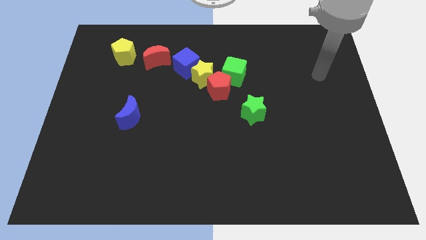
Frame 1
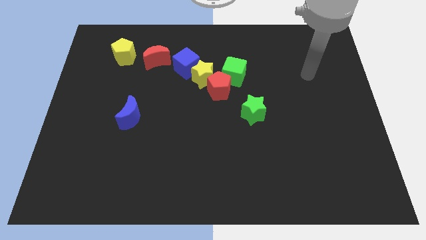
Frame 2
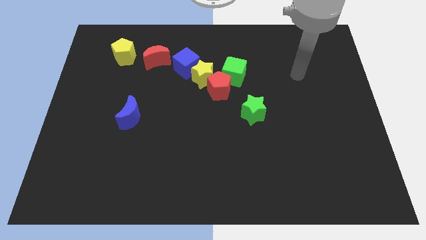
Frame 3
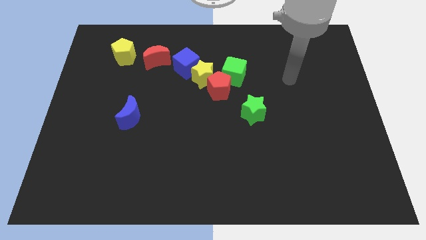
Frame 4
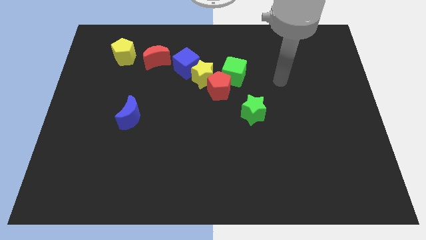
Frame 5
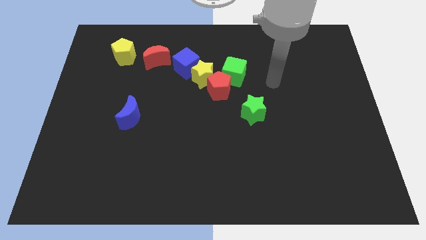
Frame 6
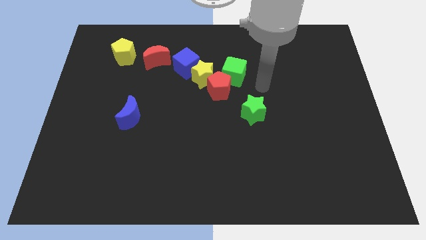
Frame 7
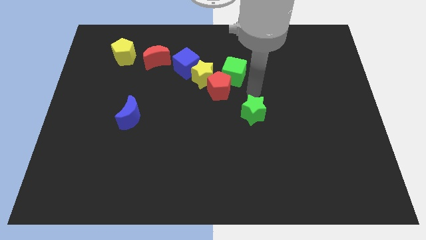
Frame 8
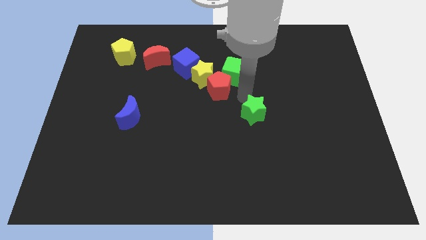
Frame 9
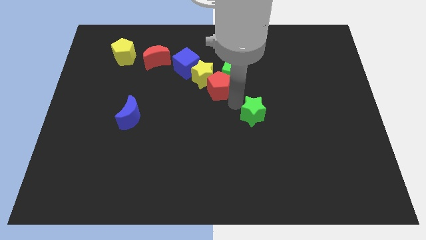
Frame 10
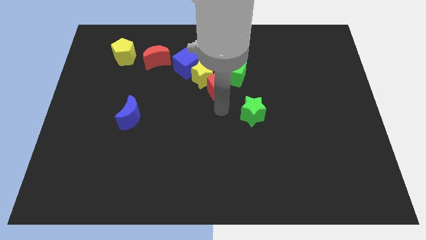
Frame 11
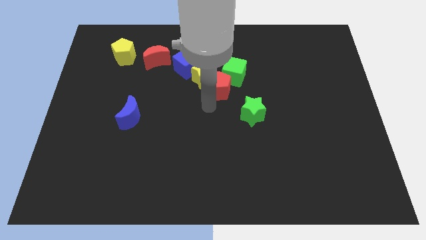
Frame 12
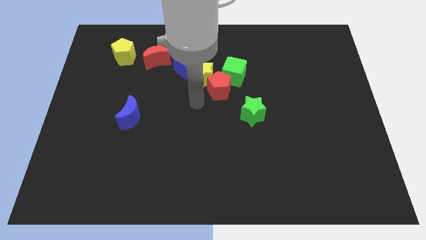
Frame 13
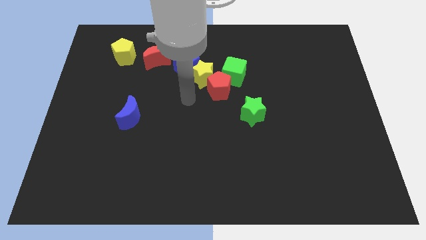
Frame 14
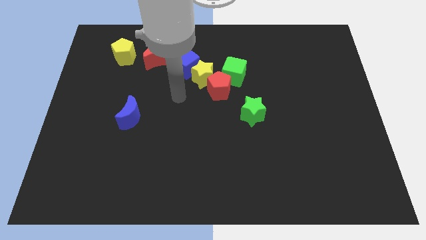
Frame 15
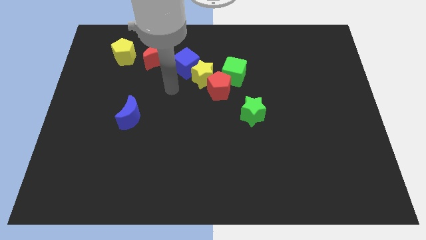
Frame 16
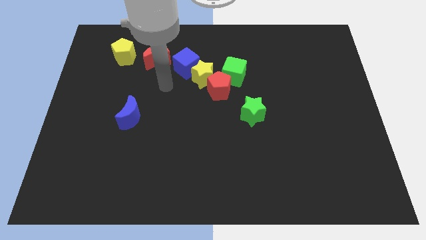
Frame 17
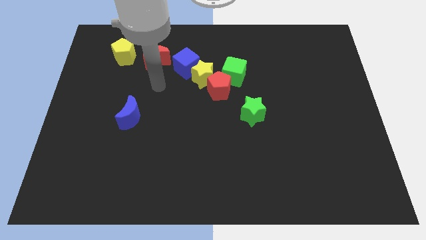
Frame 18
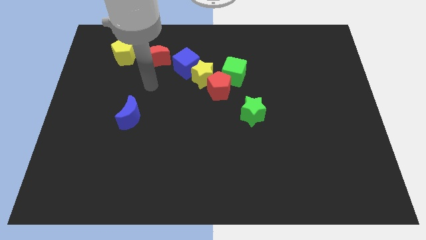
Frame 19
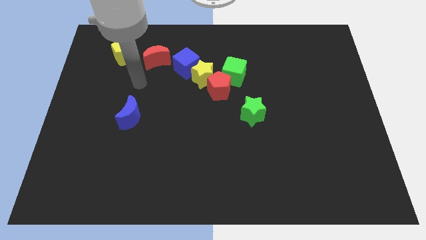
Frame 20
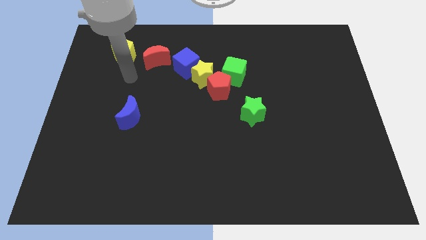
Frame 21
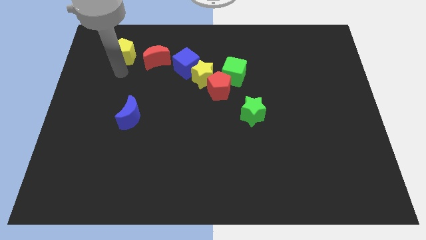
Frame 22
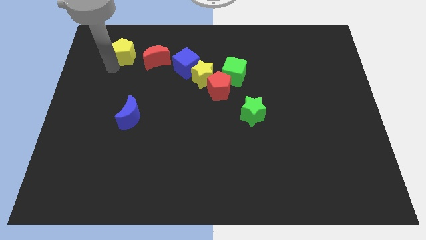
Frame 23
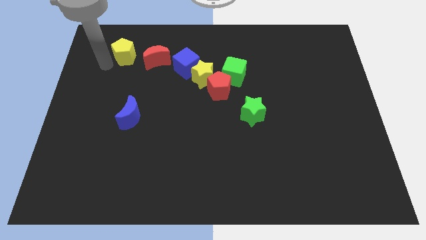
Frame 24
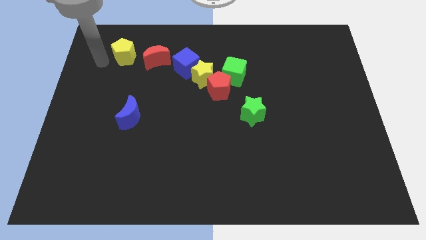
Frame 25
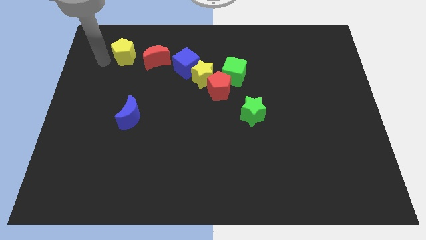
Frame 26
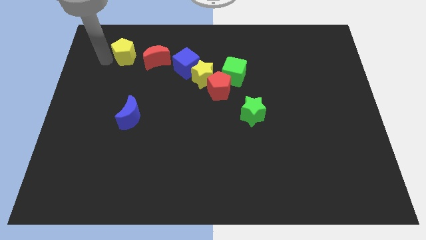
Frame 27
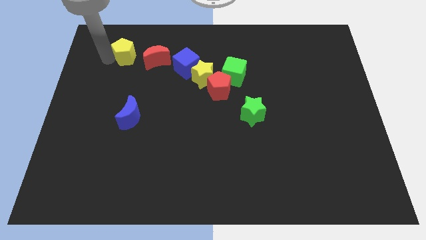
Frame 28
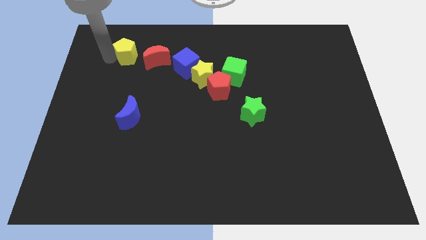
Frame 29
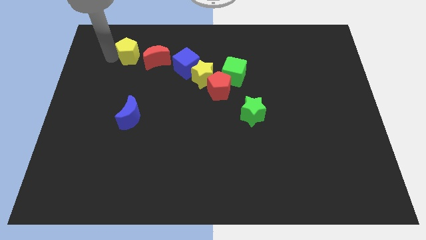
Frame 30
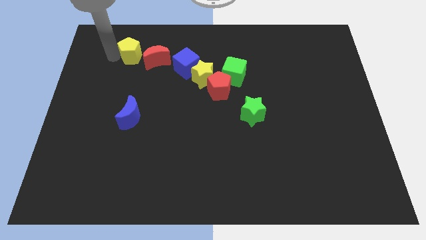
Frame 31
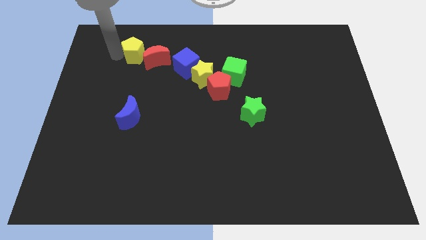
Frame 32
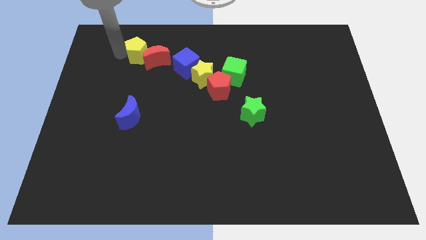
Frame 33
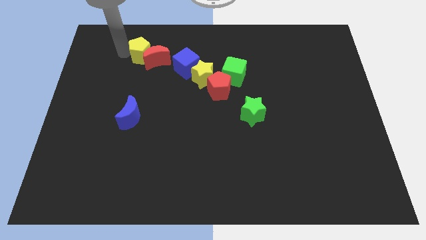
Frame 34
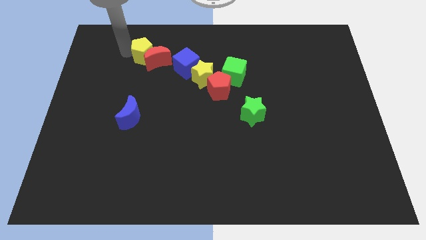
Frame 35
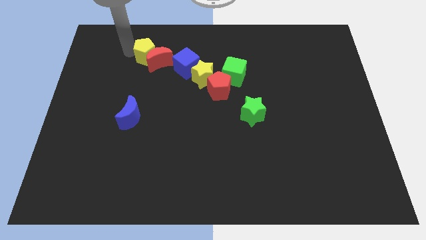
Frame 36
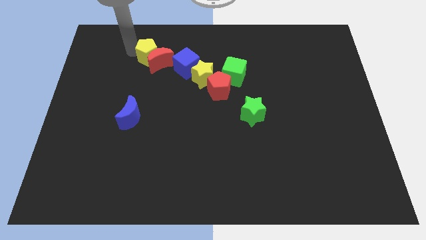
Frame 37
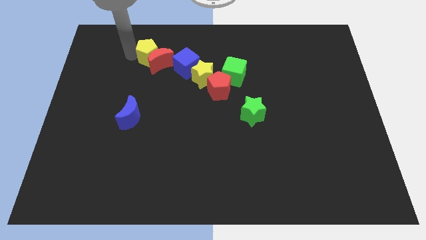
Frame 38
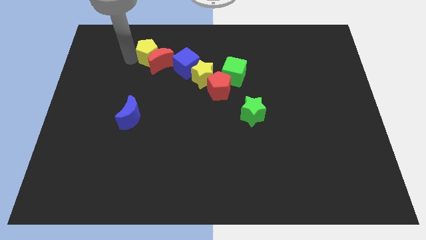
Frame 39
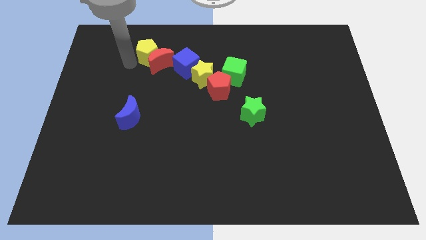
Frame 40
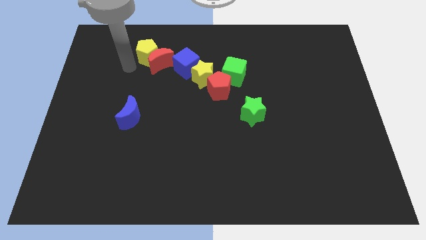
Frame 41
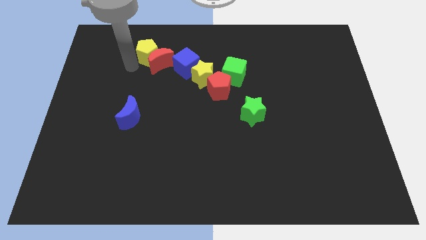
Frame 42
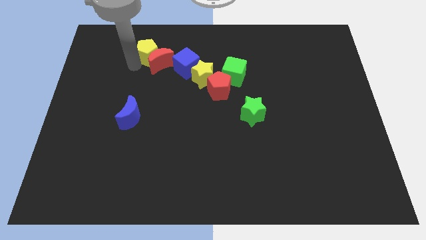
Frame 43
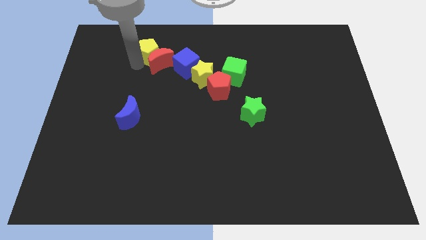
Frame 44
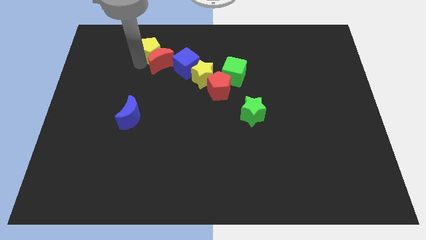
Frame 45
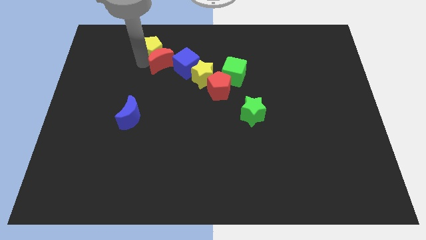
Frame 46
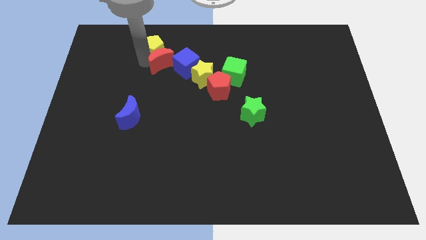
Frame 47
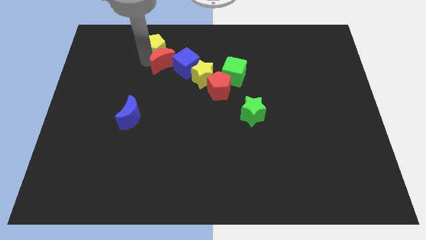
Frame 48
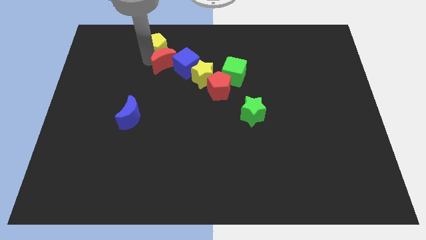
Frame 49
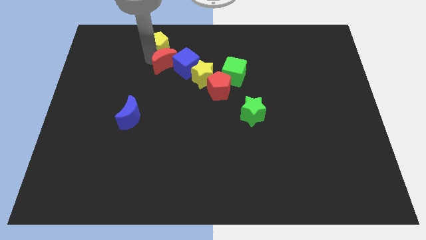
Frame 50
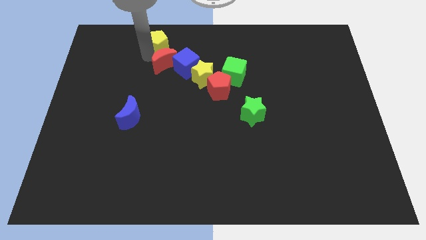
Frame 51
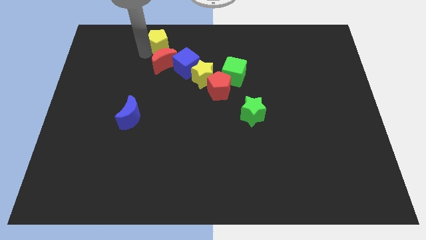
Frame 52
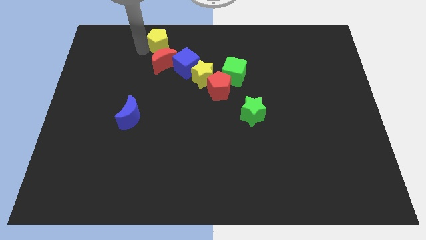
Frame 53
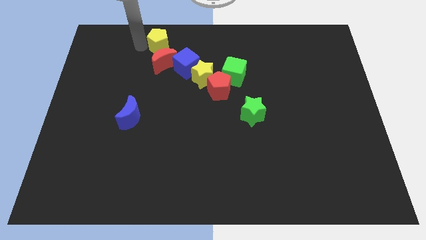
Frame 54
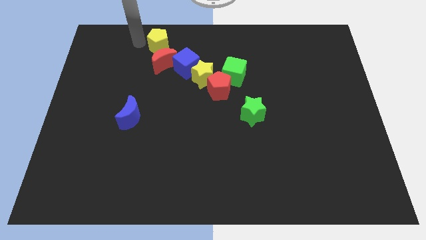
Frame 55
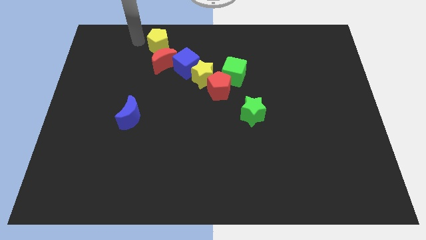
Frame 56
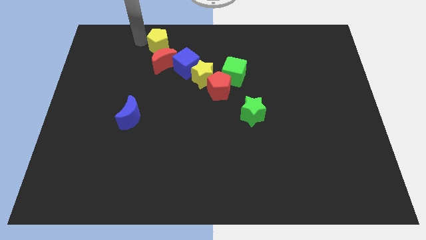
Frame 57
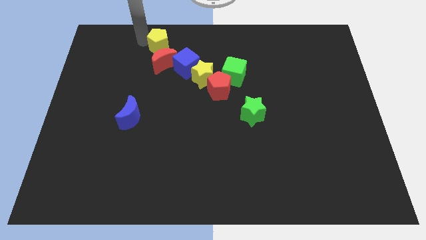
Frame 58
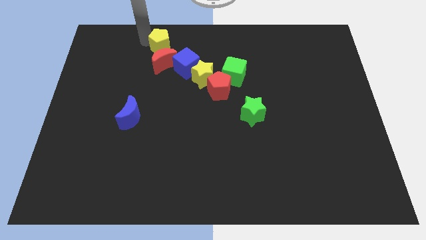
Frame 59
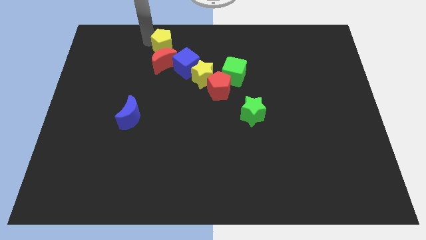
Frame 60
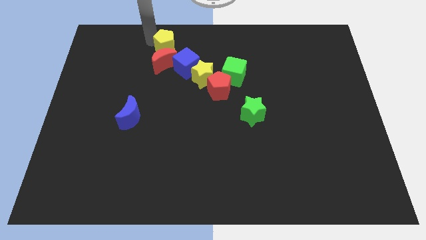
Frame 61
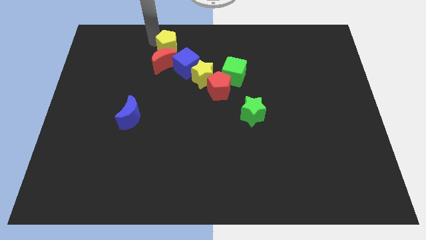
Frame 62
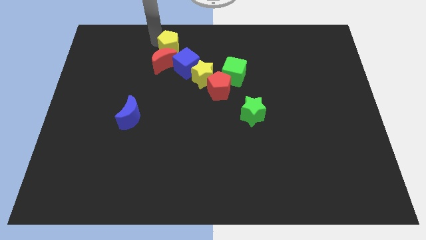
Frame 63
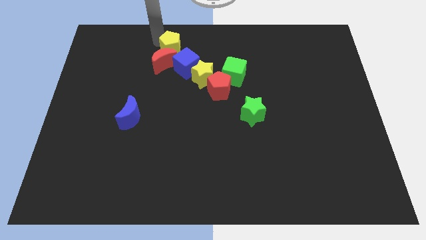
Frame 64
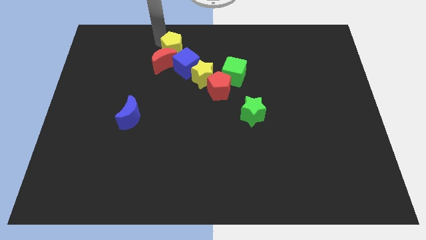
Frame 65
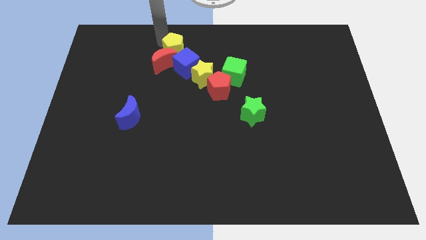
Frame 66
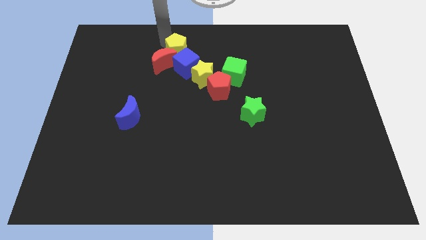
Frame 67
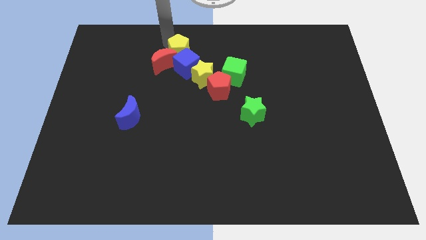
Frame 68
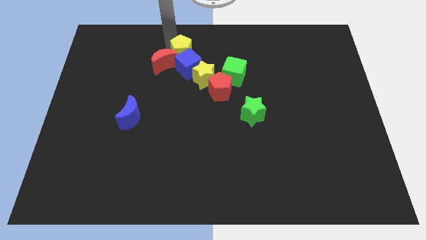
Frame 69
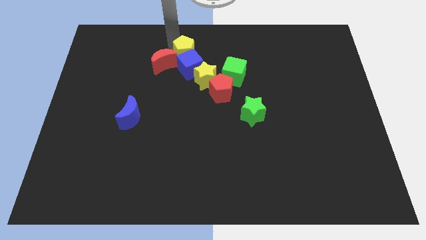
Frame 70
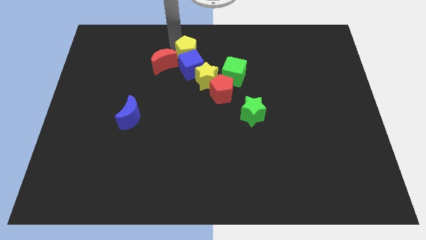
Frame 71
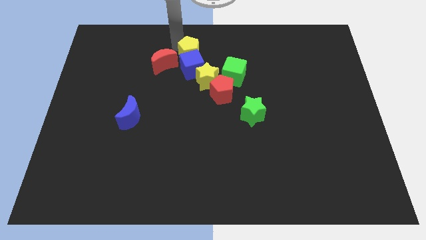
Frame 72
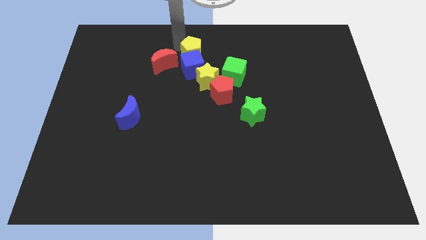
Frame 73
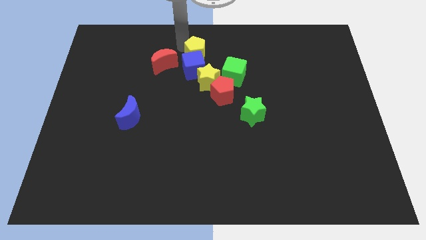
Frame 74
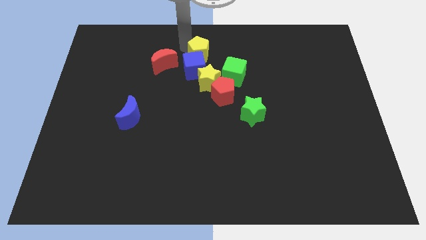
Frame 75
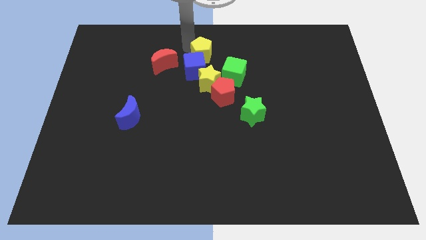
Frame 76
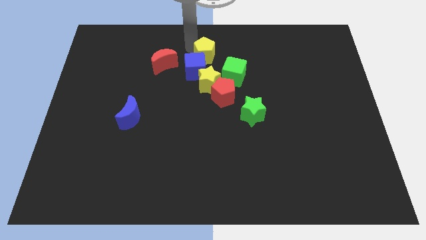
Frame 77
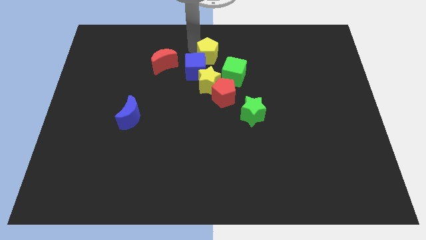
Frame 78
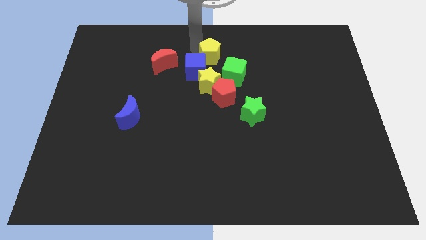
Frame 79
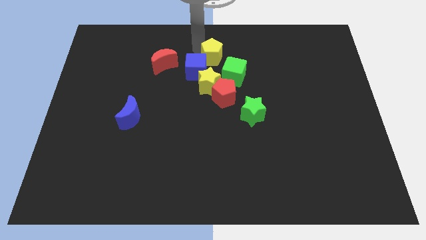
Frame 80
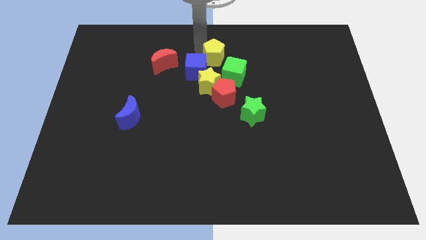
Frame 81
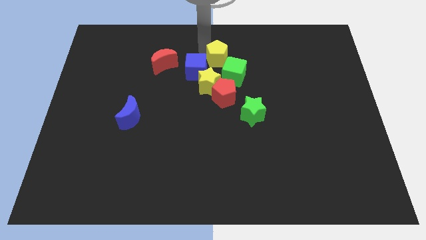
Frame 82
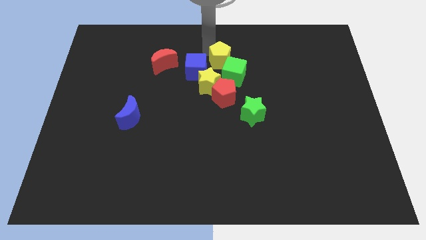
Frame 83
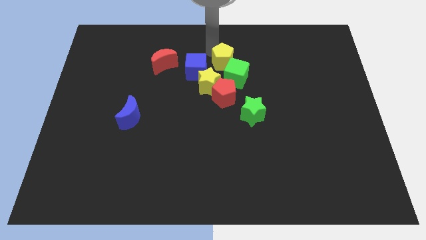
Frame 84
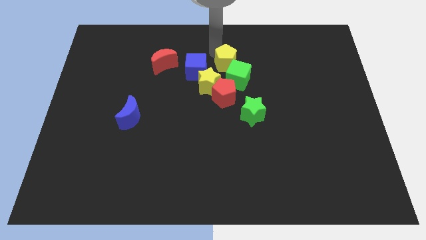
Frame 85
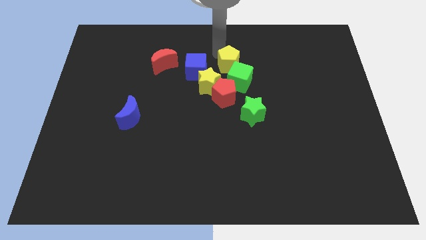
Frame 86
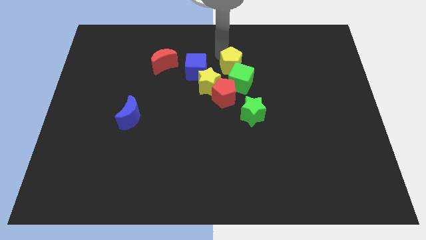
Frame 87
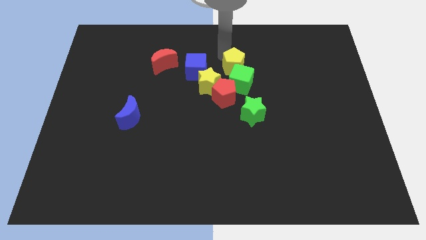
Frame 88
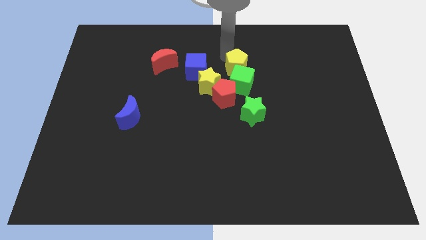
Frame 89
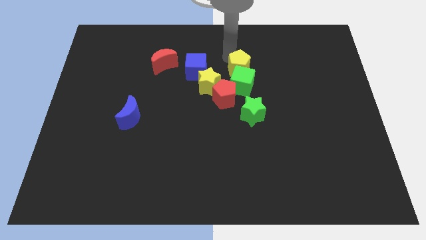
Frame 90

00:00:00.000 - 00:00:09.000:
slide the yellow pentagon to the top right side of the red pentagon
